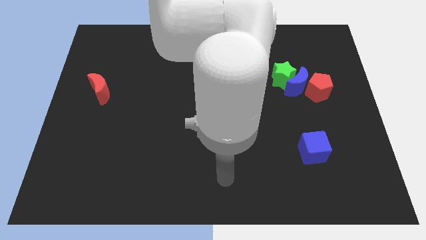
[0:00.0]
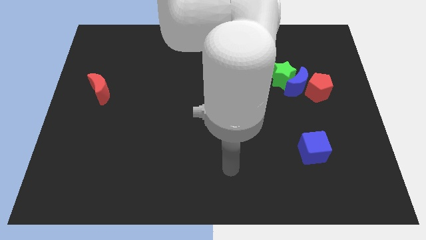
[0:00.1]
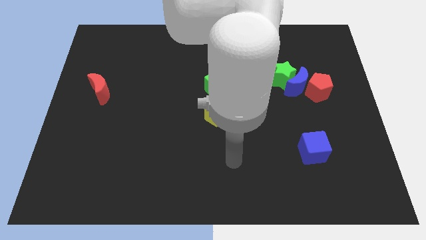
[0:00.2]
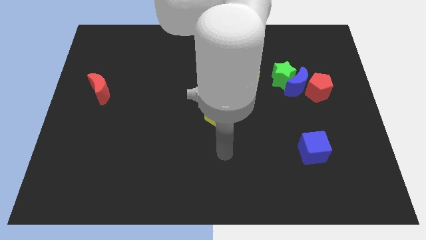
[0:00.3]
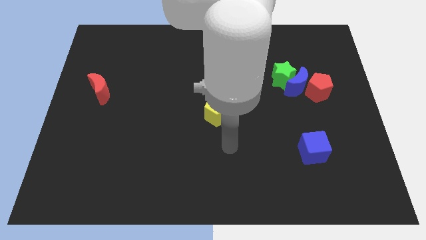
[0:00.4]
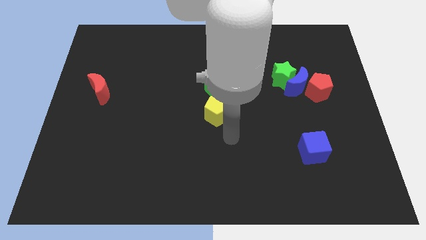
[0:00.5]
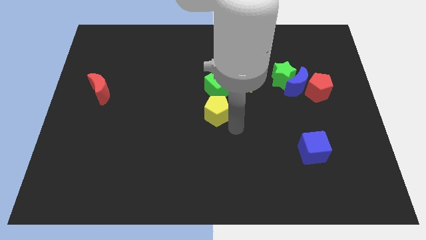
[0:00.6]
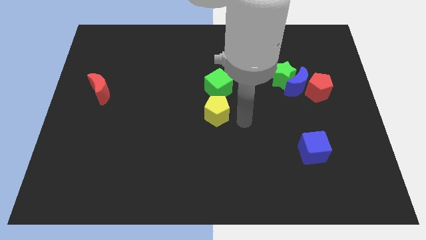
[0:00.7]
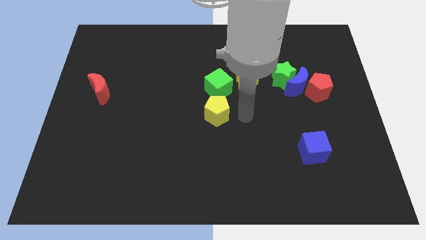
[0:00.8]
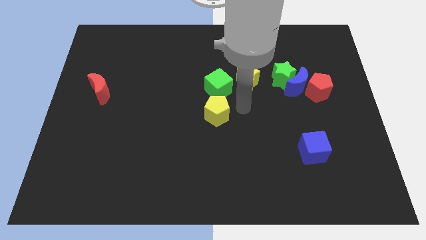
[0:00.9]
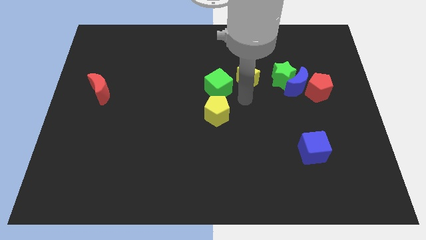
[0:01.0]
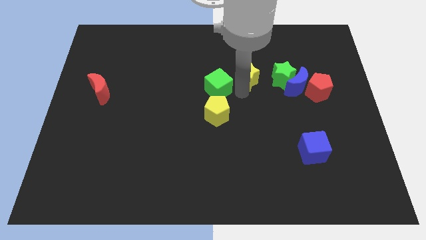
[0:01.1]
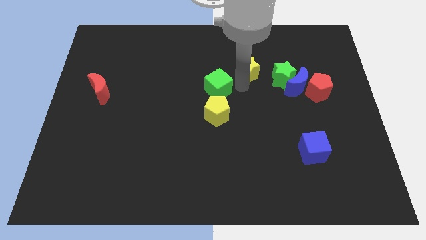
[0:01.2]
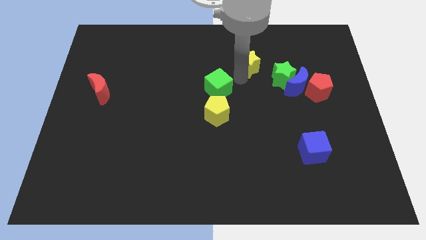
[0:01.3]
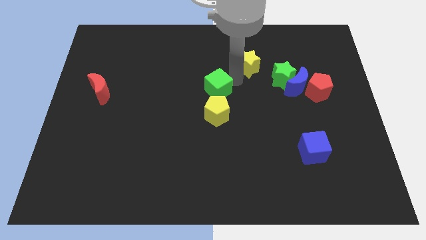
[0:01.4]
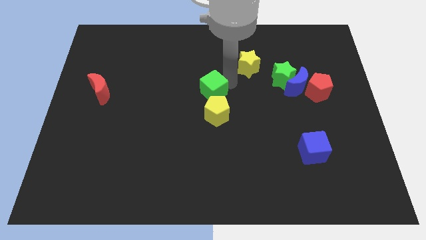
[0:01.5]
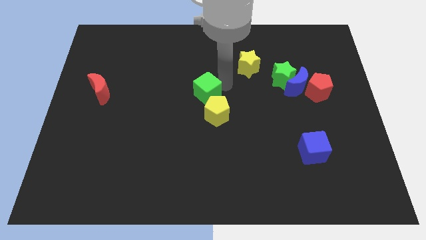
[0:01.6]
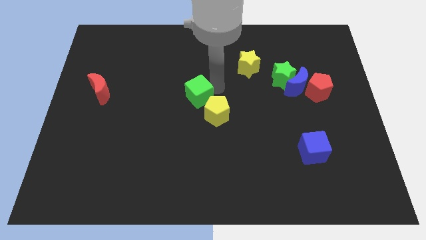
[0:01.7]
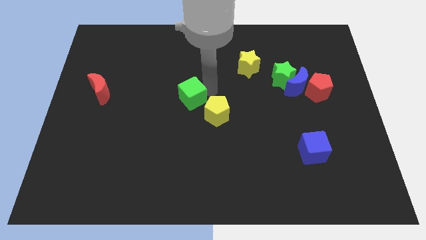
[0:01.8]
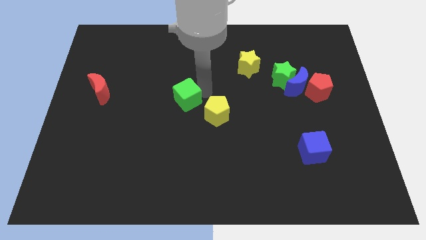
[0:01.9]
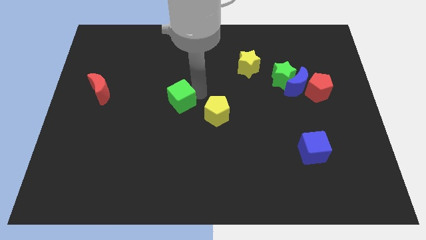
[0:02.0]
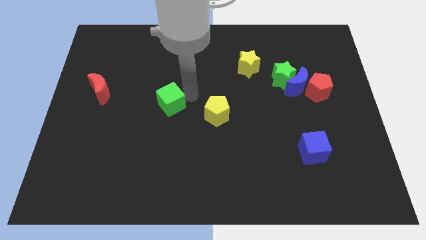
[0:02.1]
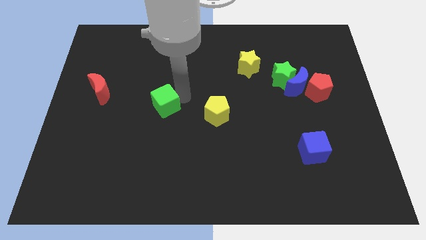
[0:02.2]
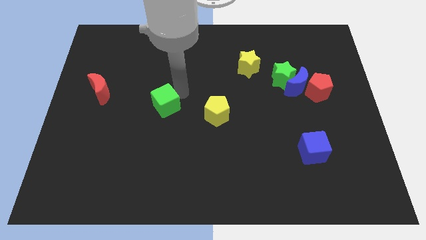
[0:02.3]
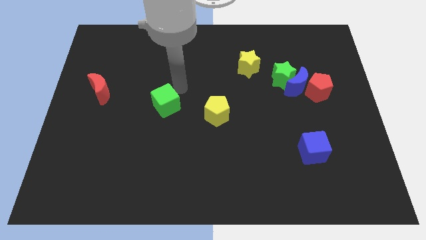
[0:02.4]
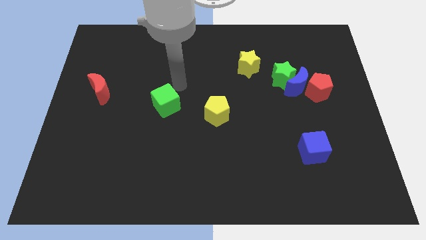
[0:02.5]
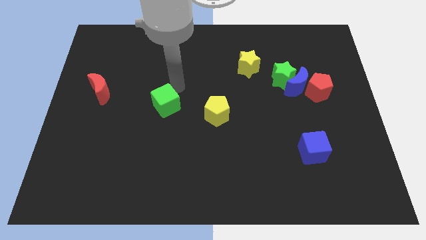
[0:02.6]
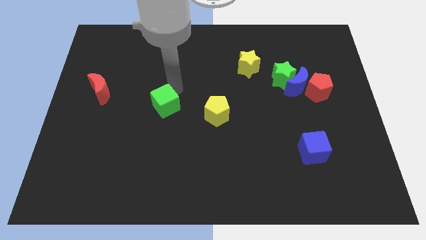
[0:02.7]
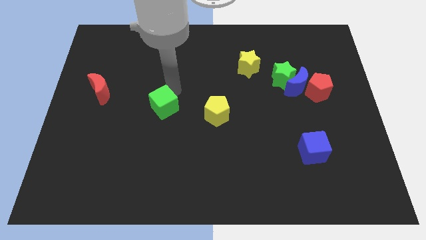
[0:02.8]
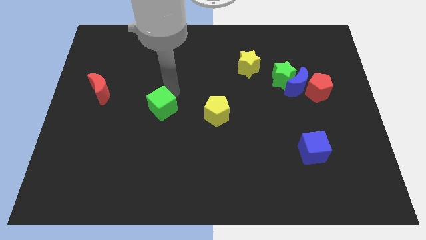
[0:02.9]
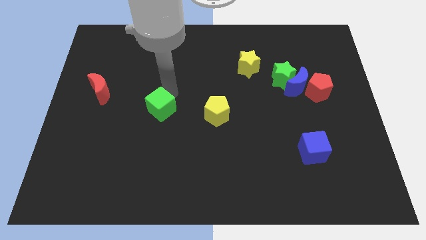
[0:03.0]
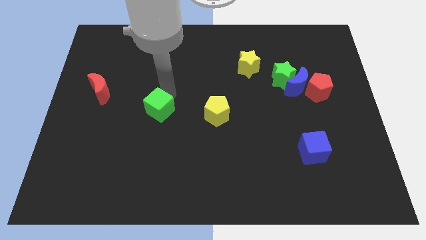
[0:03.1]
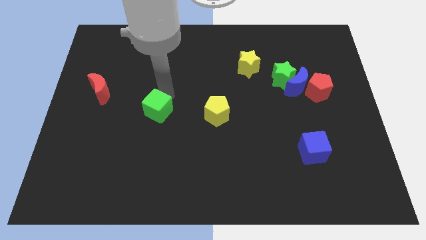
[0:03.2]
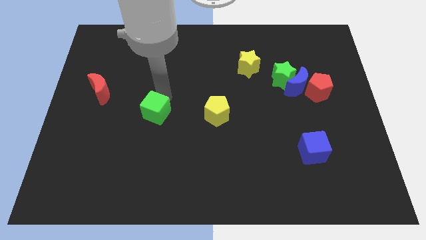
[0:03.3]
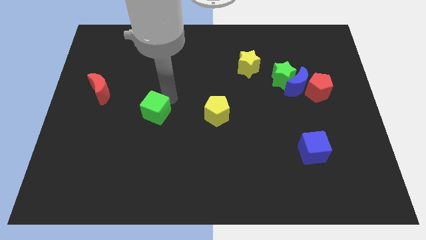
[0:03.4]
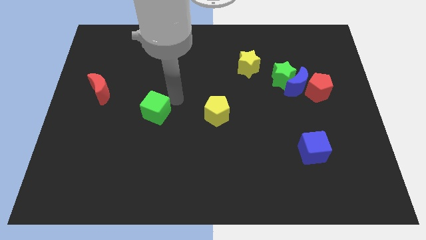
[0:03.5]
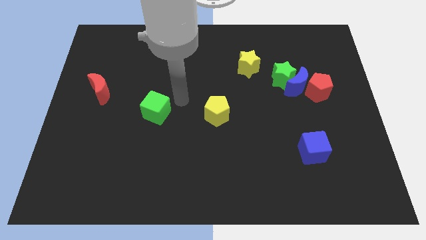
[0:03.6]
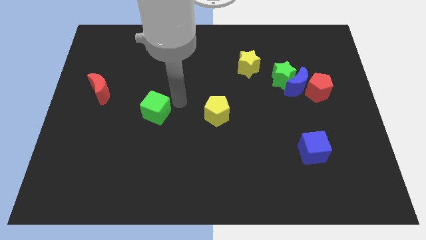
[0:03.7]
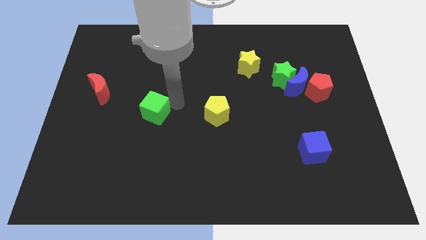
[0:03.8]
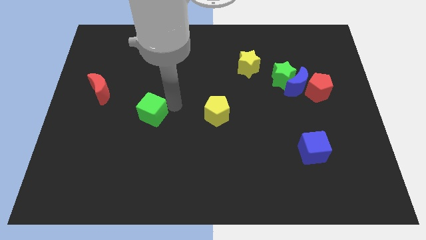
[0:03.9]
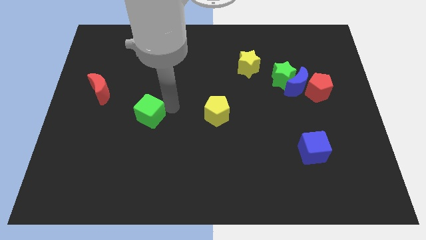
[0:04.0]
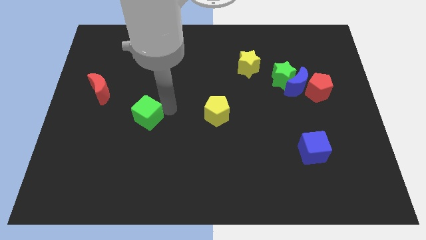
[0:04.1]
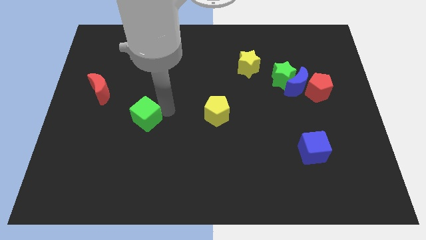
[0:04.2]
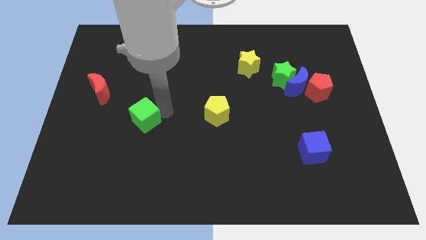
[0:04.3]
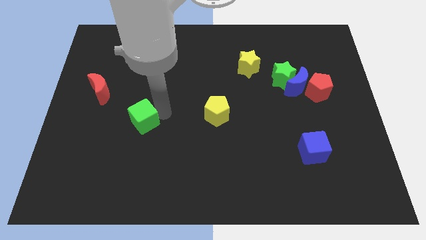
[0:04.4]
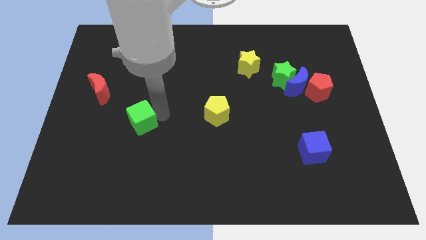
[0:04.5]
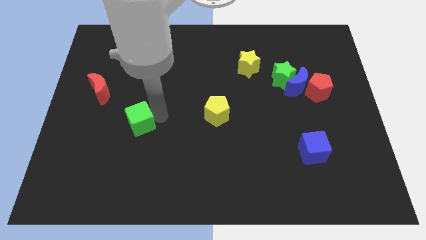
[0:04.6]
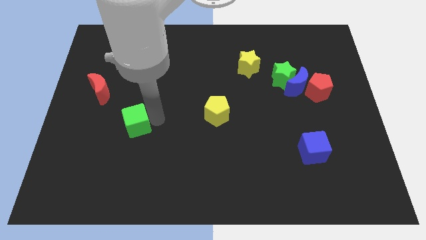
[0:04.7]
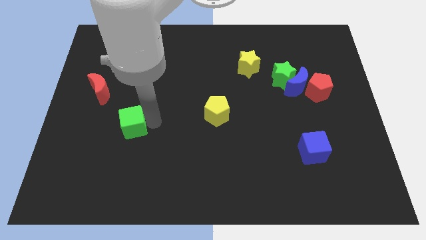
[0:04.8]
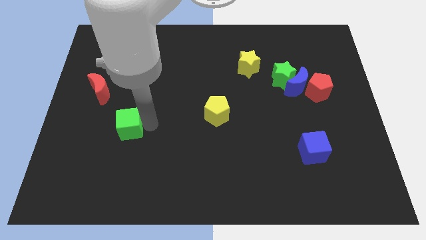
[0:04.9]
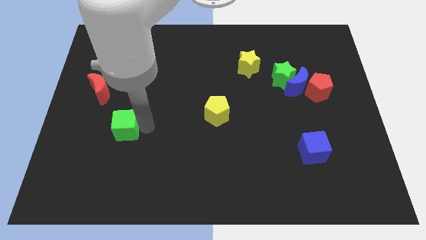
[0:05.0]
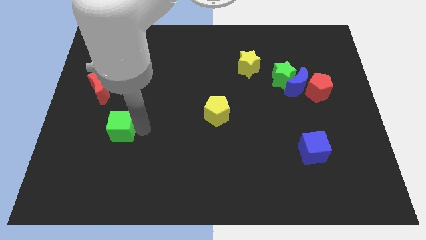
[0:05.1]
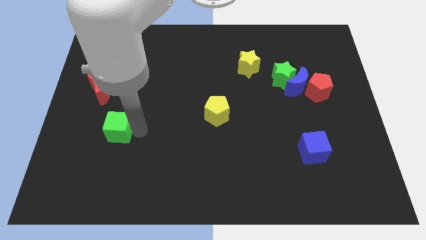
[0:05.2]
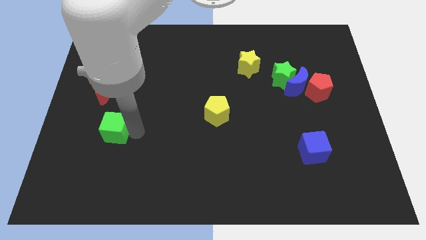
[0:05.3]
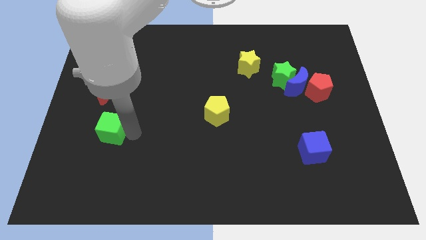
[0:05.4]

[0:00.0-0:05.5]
slide the green cube to the bottom of the red moon

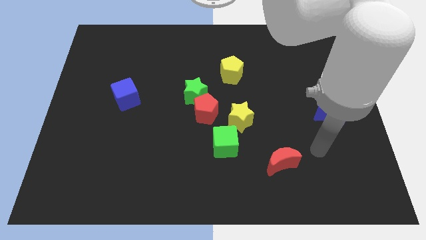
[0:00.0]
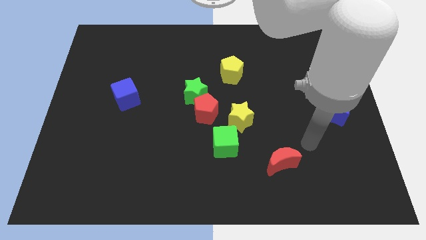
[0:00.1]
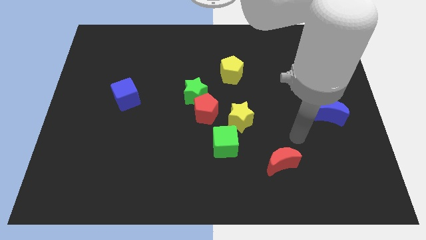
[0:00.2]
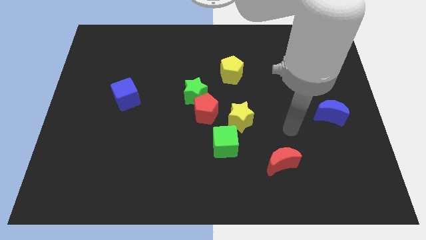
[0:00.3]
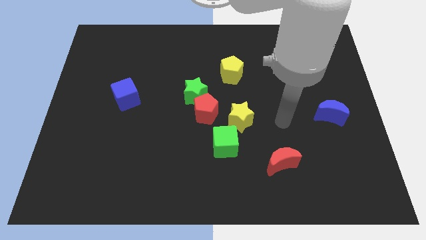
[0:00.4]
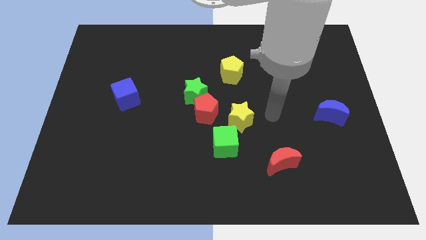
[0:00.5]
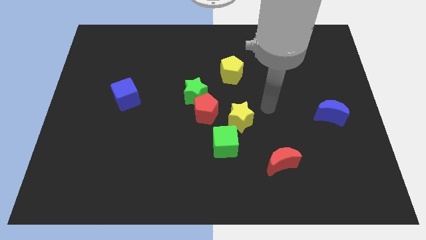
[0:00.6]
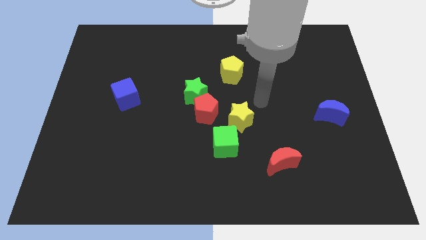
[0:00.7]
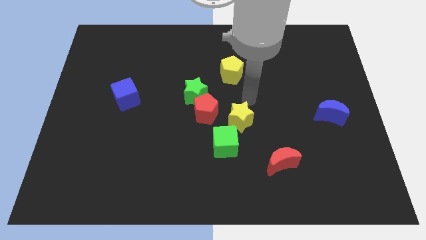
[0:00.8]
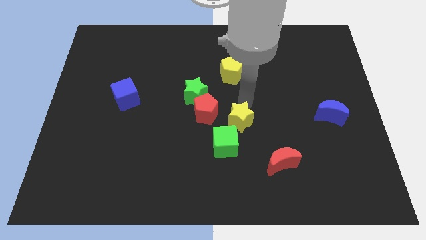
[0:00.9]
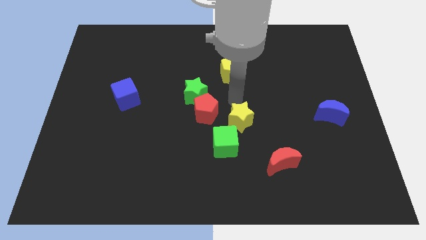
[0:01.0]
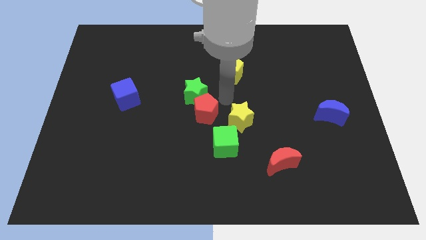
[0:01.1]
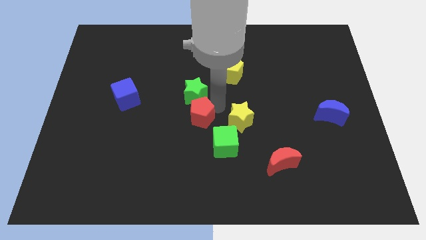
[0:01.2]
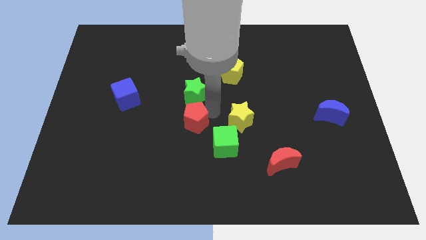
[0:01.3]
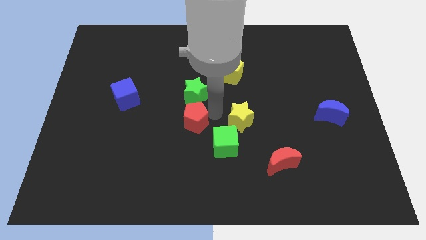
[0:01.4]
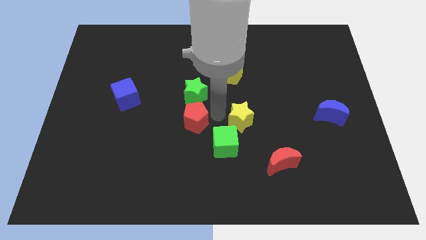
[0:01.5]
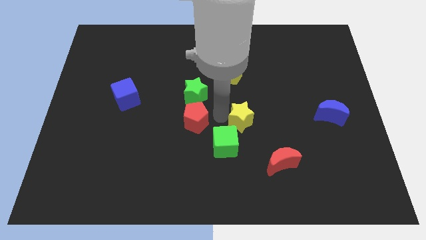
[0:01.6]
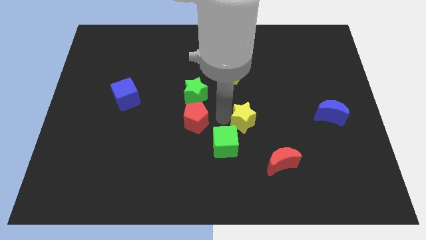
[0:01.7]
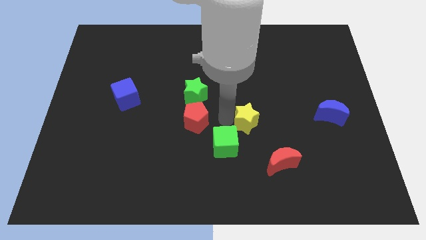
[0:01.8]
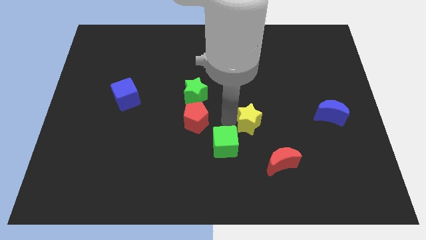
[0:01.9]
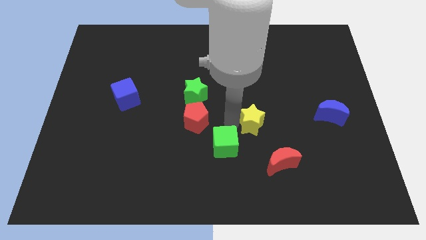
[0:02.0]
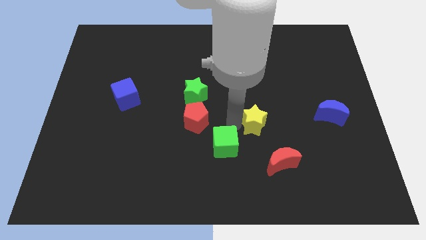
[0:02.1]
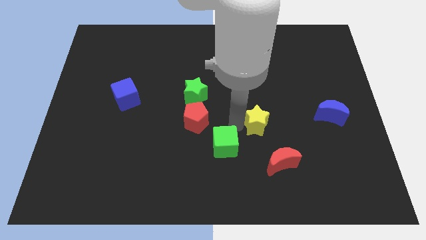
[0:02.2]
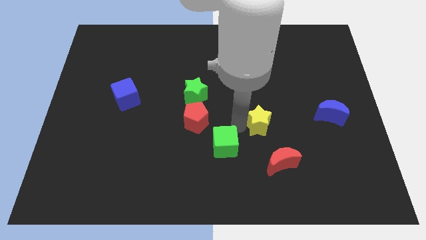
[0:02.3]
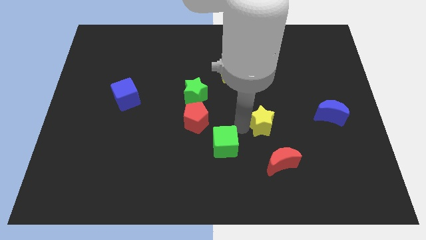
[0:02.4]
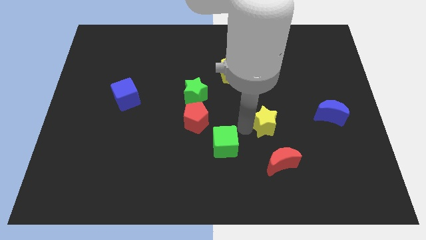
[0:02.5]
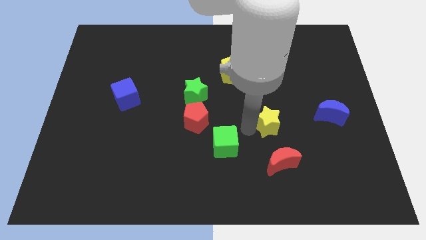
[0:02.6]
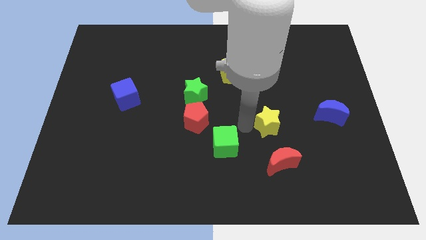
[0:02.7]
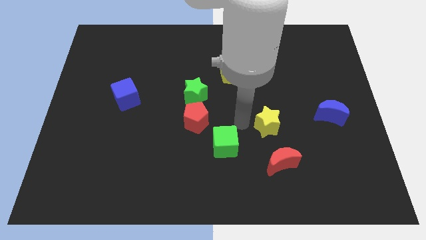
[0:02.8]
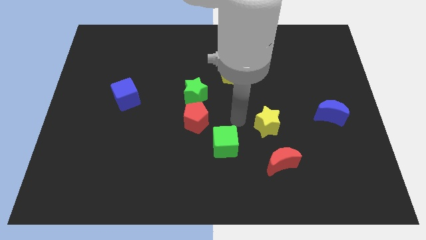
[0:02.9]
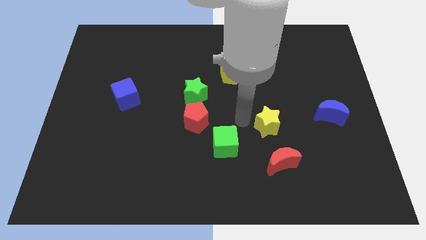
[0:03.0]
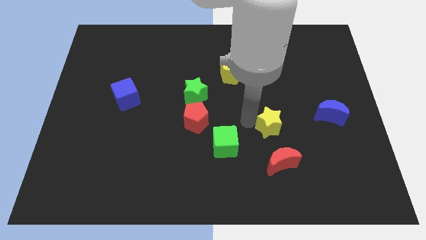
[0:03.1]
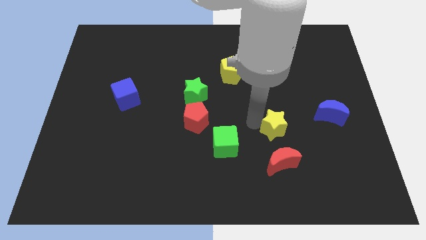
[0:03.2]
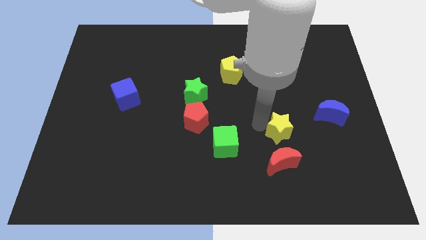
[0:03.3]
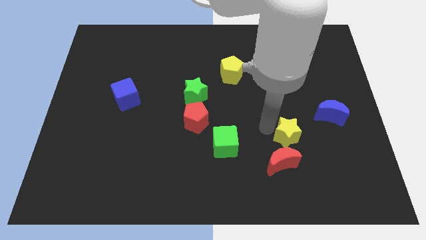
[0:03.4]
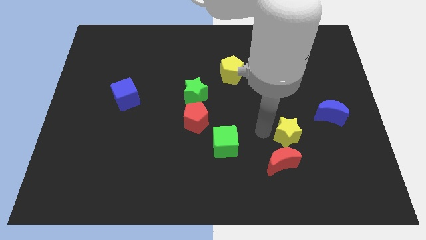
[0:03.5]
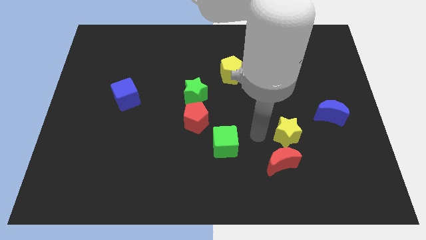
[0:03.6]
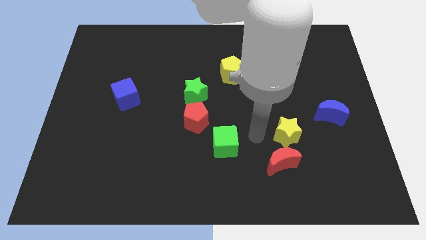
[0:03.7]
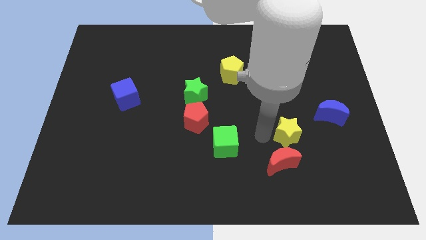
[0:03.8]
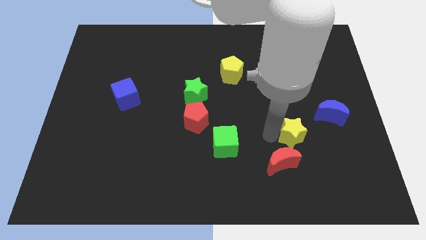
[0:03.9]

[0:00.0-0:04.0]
put the yellow star to the bottom left of the blue moon
